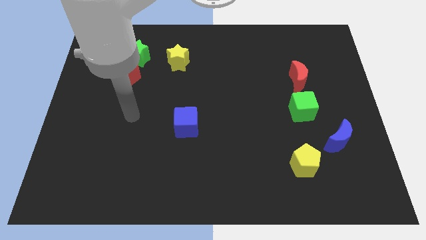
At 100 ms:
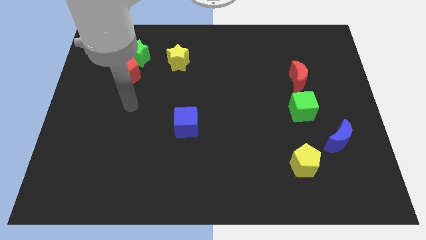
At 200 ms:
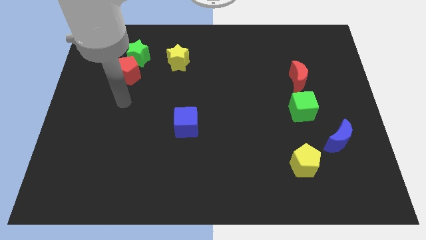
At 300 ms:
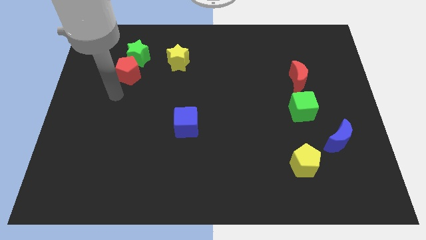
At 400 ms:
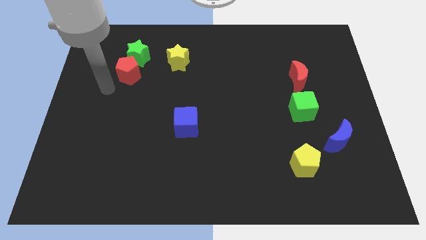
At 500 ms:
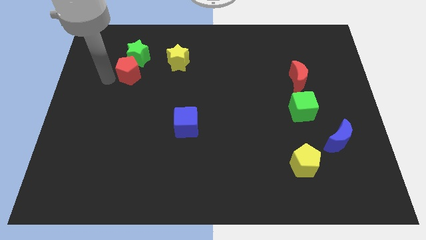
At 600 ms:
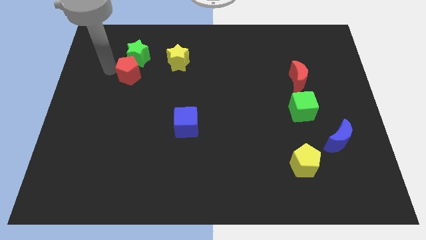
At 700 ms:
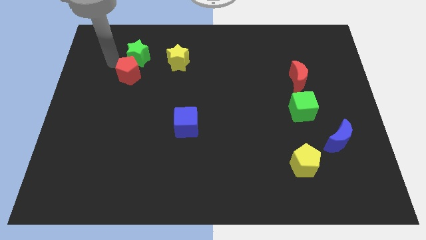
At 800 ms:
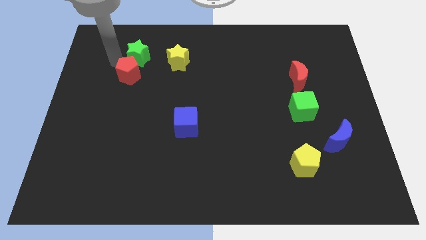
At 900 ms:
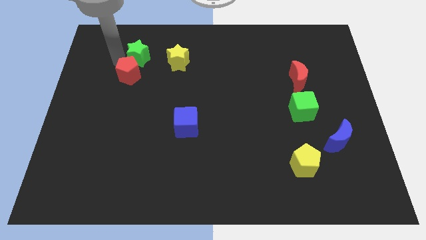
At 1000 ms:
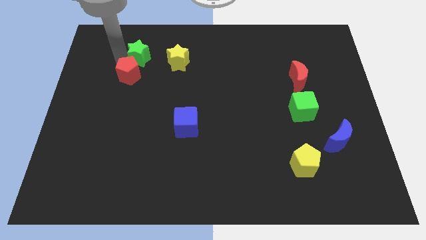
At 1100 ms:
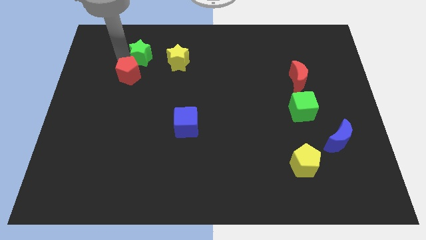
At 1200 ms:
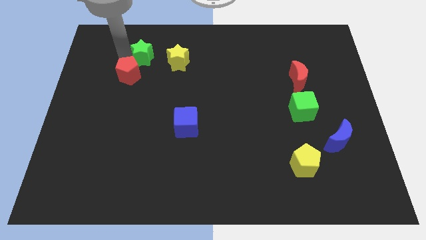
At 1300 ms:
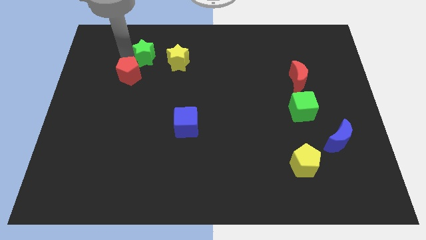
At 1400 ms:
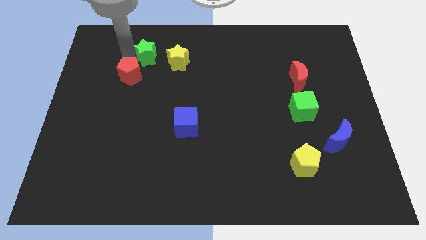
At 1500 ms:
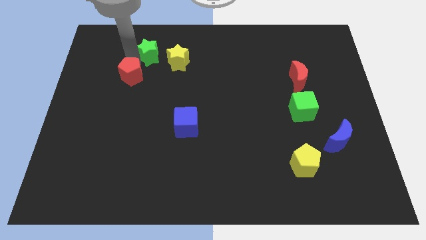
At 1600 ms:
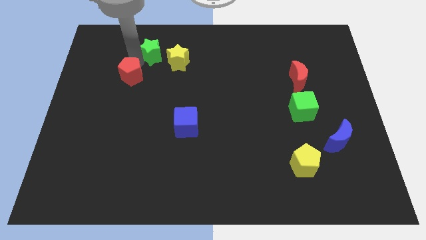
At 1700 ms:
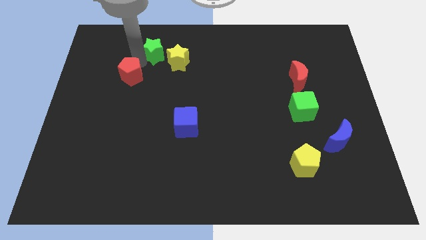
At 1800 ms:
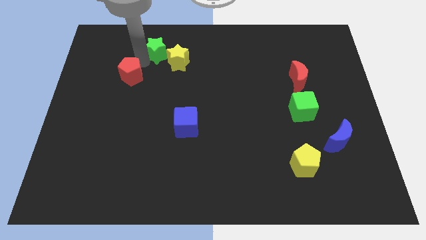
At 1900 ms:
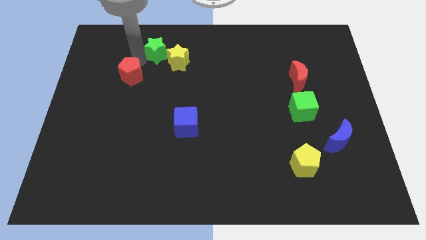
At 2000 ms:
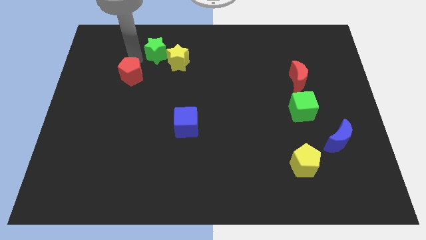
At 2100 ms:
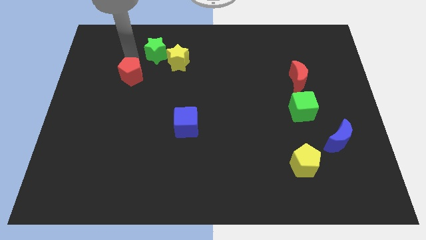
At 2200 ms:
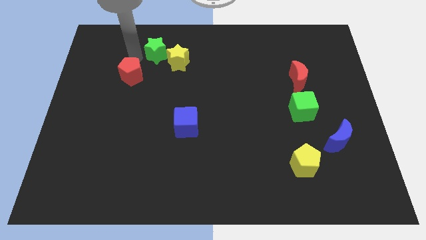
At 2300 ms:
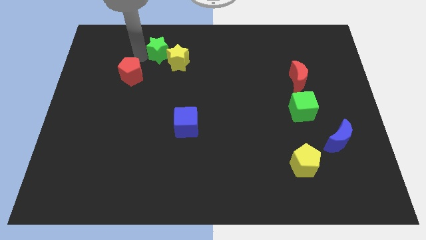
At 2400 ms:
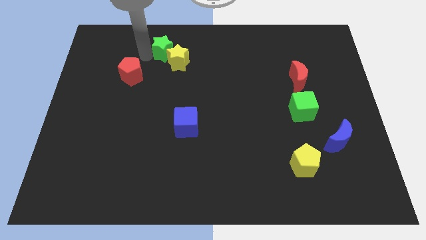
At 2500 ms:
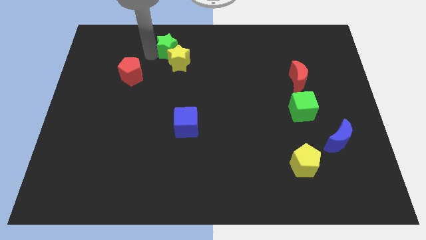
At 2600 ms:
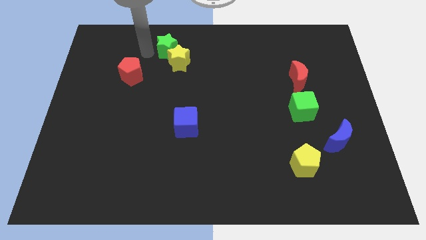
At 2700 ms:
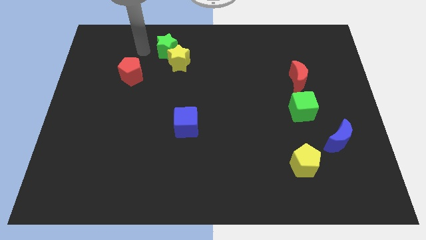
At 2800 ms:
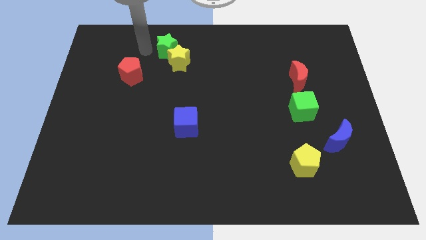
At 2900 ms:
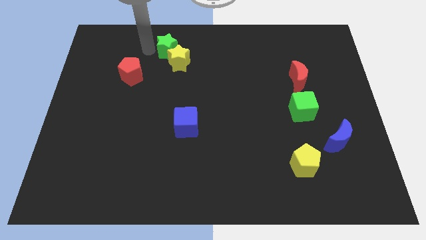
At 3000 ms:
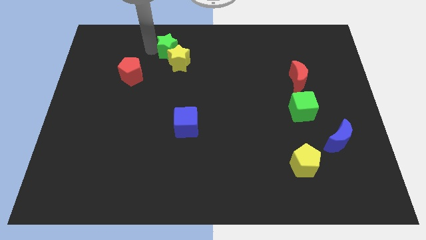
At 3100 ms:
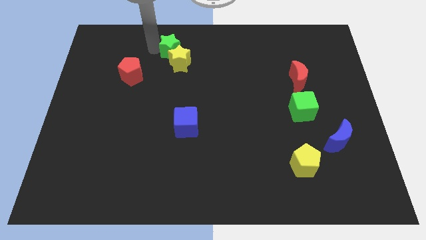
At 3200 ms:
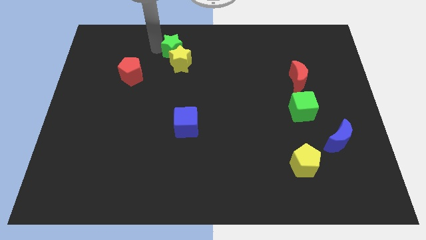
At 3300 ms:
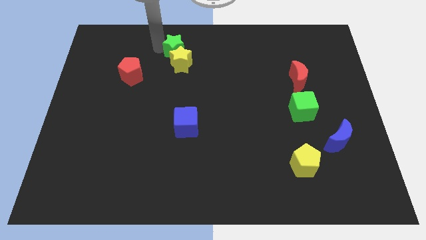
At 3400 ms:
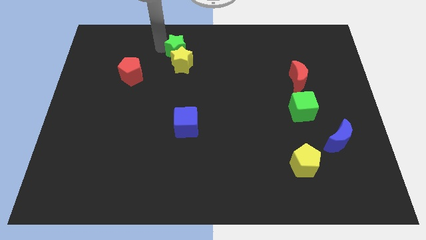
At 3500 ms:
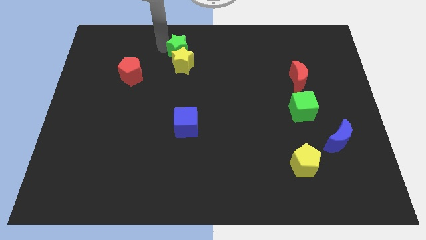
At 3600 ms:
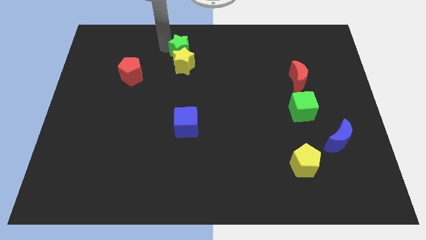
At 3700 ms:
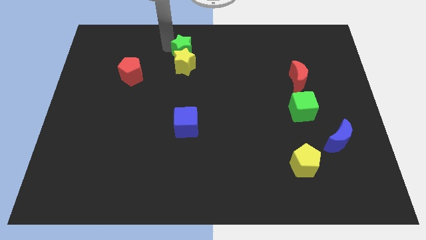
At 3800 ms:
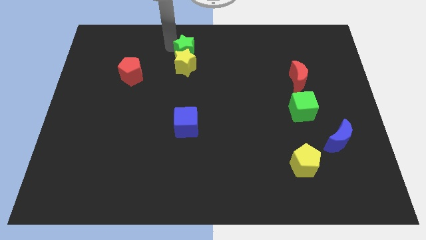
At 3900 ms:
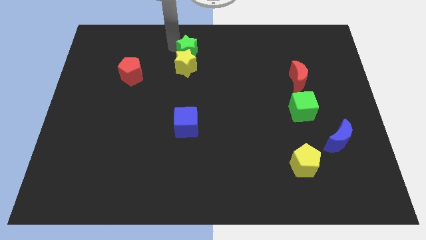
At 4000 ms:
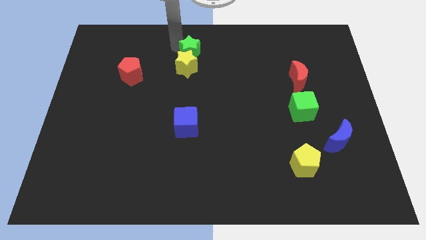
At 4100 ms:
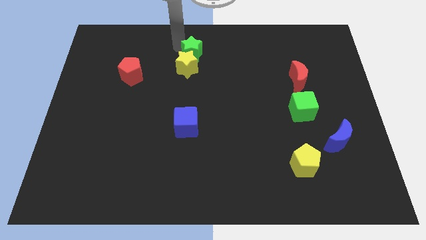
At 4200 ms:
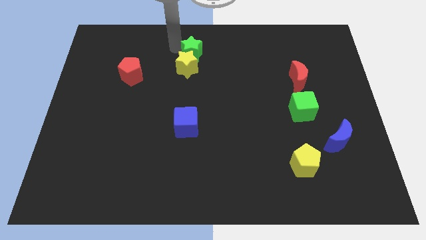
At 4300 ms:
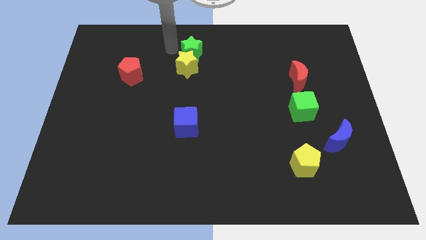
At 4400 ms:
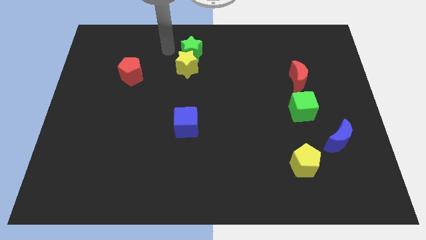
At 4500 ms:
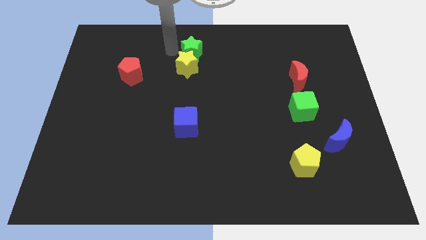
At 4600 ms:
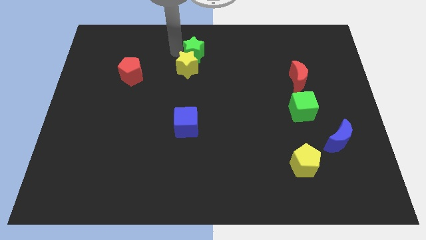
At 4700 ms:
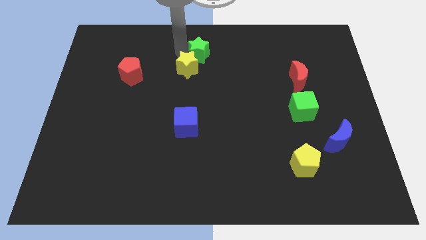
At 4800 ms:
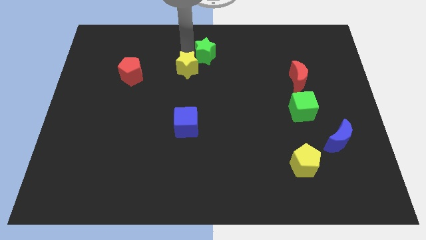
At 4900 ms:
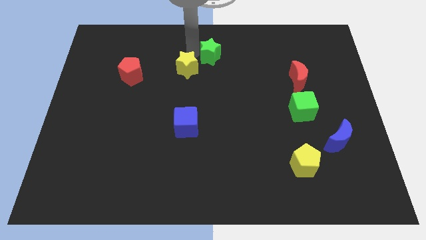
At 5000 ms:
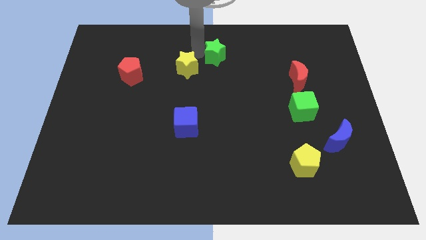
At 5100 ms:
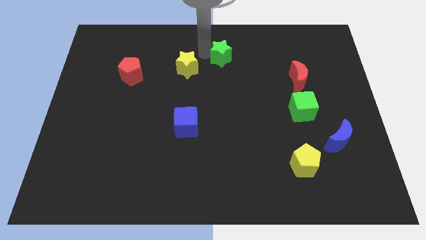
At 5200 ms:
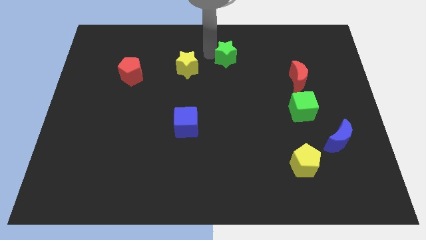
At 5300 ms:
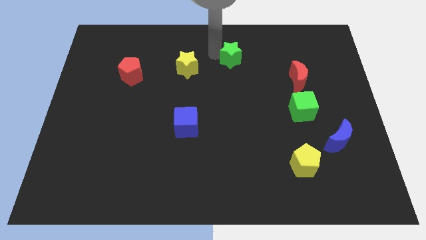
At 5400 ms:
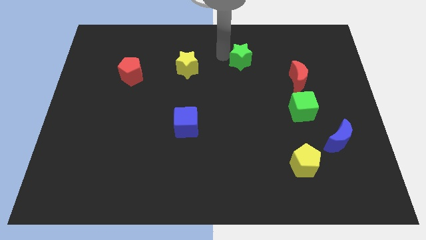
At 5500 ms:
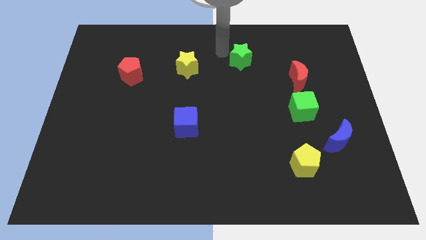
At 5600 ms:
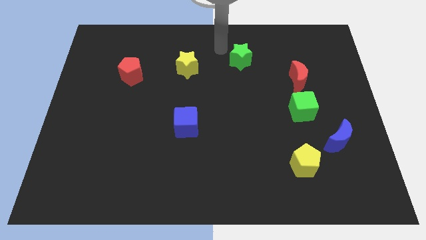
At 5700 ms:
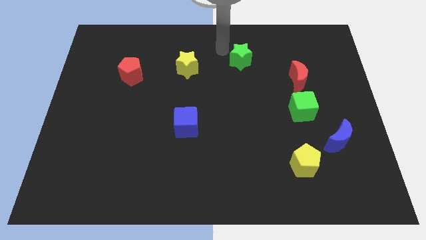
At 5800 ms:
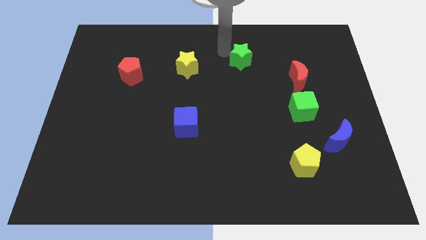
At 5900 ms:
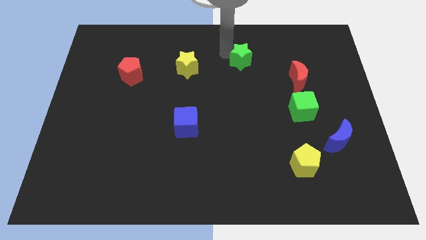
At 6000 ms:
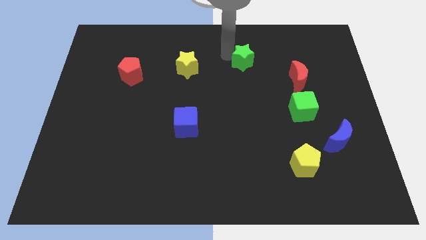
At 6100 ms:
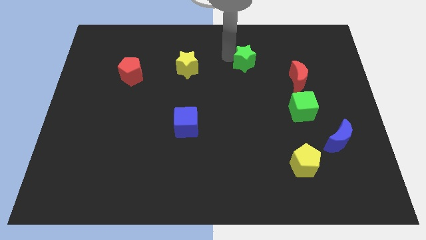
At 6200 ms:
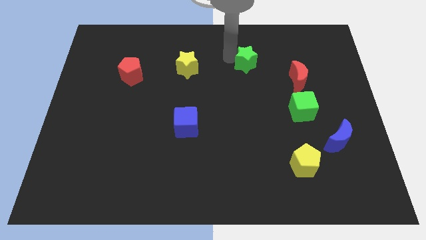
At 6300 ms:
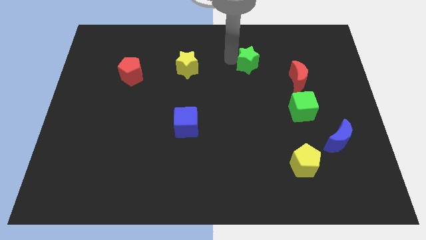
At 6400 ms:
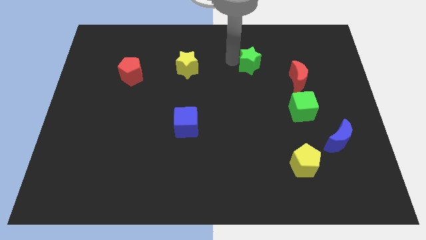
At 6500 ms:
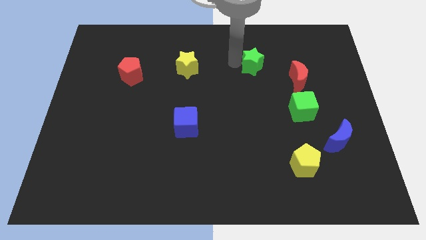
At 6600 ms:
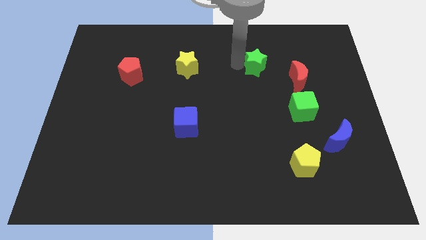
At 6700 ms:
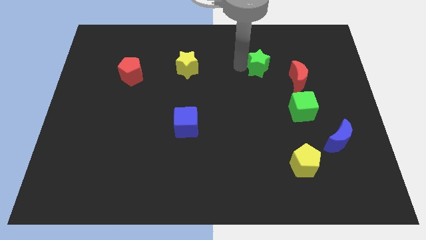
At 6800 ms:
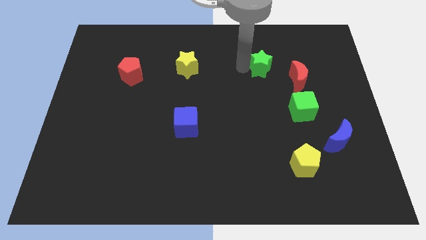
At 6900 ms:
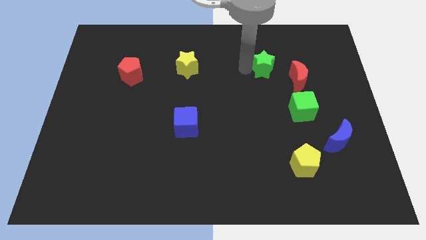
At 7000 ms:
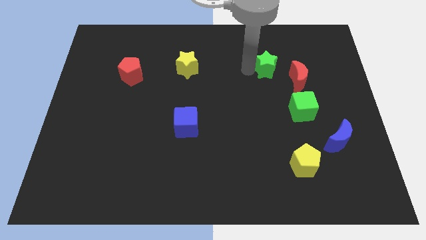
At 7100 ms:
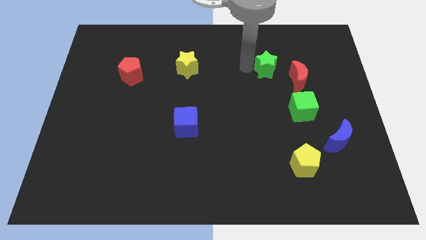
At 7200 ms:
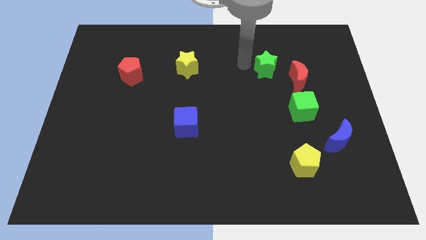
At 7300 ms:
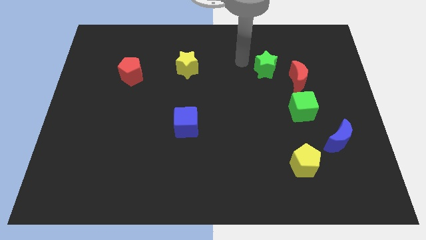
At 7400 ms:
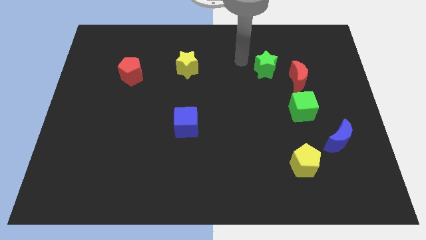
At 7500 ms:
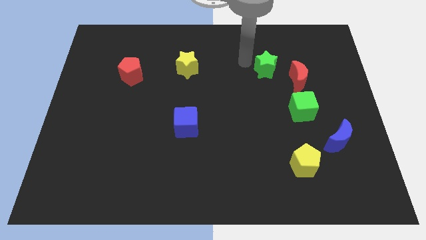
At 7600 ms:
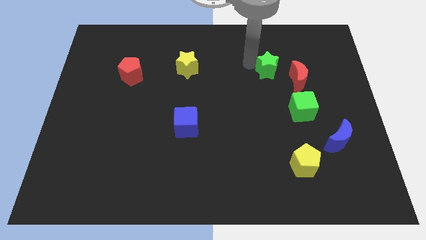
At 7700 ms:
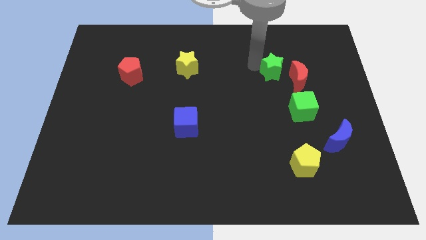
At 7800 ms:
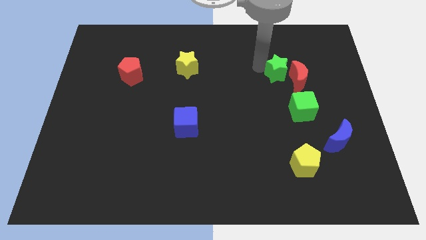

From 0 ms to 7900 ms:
move the green star close to the red moon
